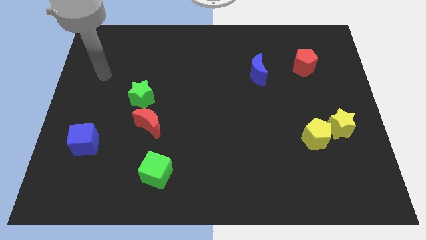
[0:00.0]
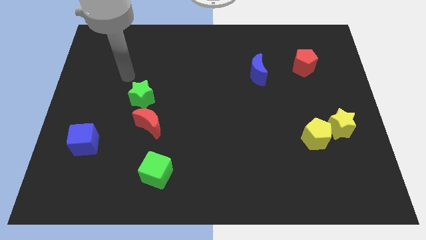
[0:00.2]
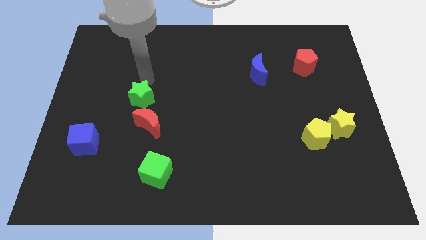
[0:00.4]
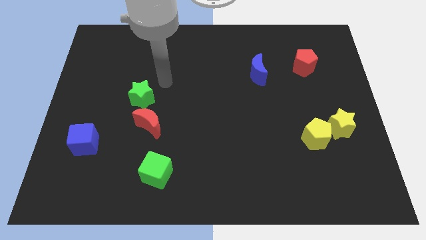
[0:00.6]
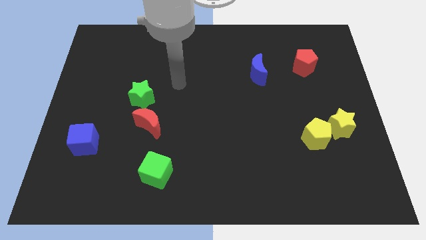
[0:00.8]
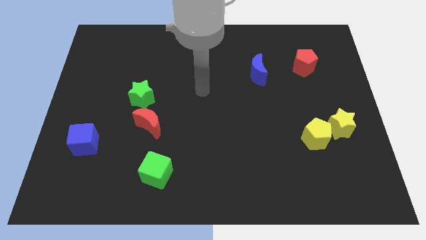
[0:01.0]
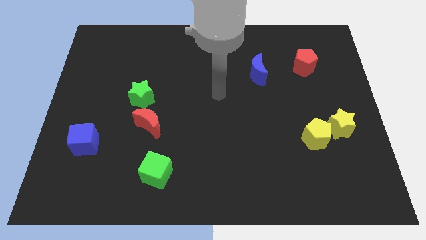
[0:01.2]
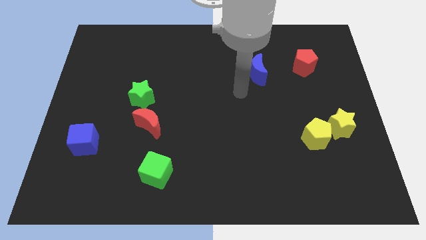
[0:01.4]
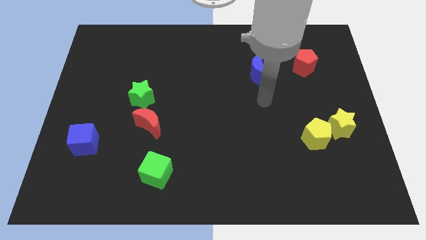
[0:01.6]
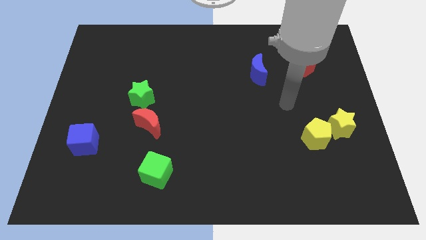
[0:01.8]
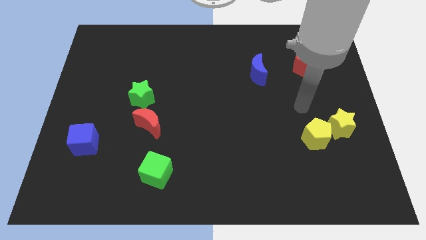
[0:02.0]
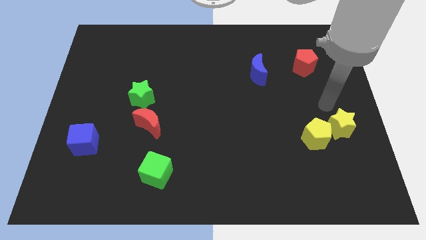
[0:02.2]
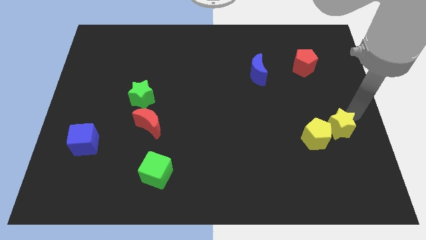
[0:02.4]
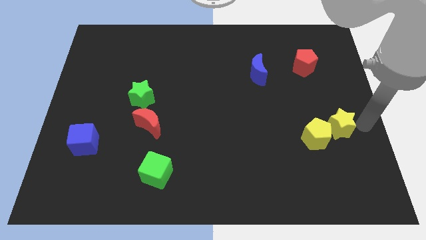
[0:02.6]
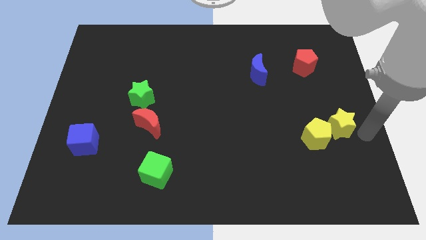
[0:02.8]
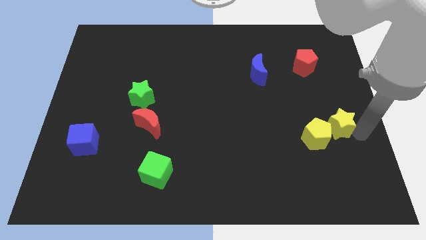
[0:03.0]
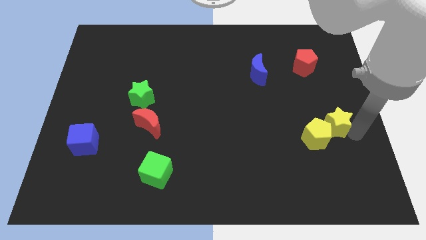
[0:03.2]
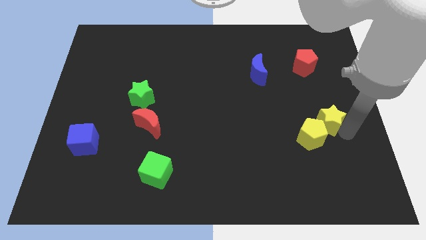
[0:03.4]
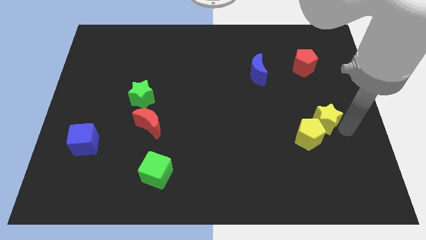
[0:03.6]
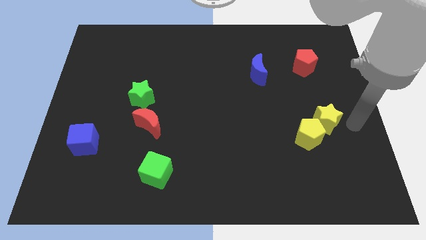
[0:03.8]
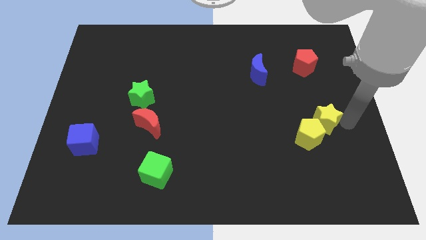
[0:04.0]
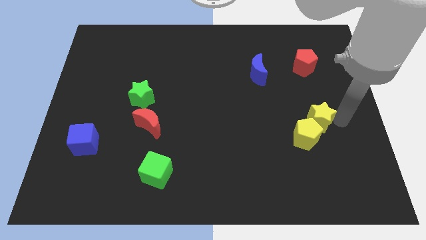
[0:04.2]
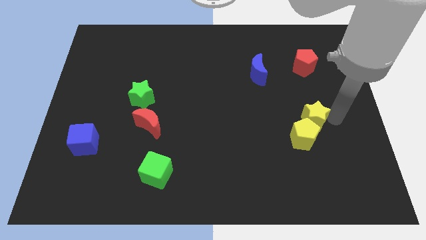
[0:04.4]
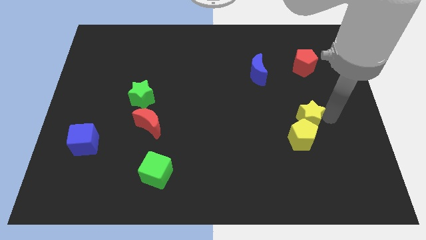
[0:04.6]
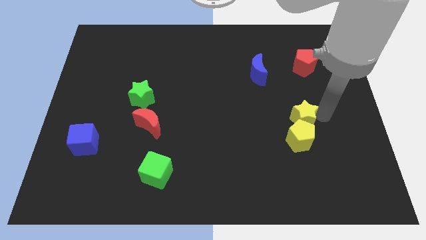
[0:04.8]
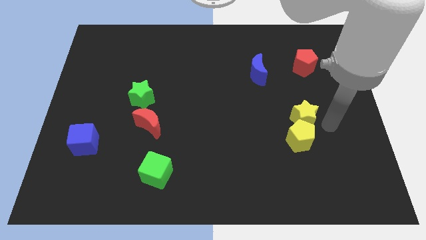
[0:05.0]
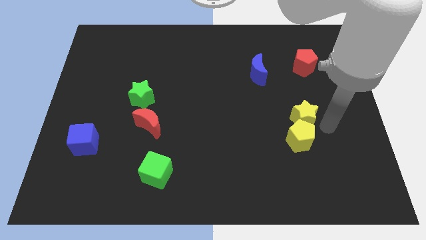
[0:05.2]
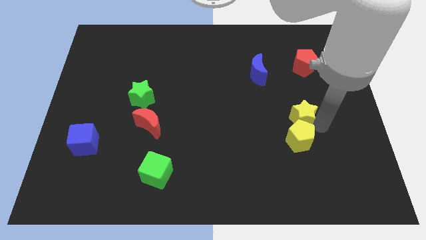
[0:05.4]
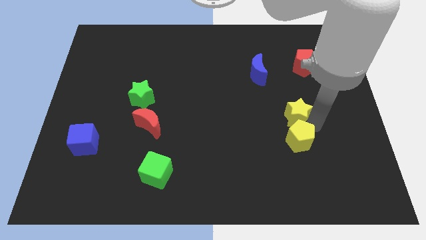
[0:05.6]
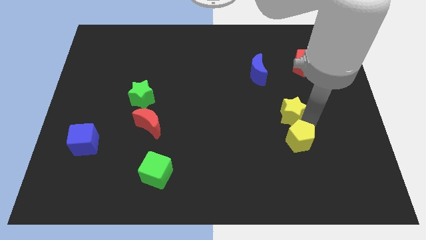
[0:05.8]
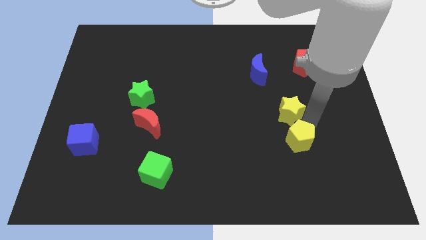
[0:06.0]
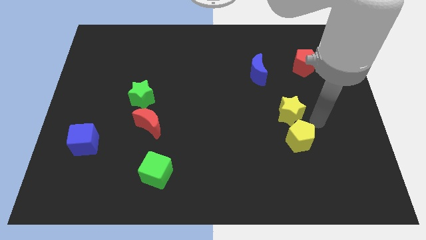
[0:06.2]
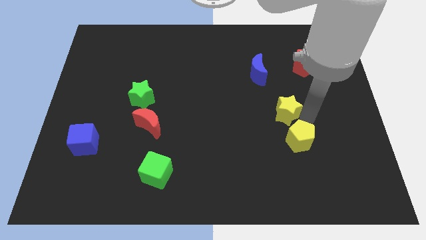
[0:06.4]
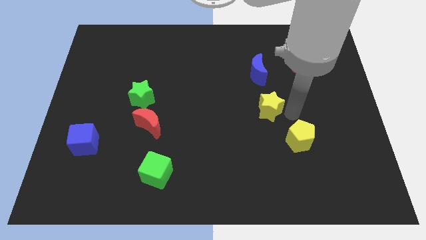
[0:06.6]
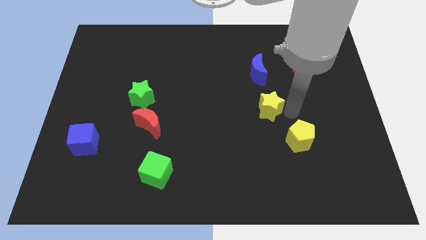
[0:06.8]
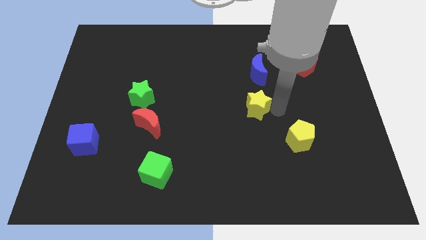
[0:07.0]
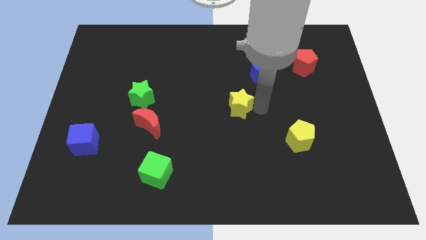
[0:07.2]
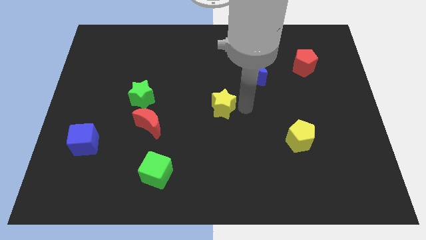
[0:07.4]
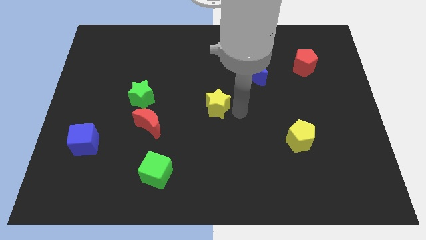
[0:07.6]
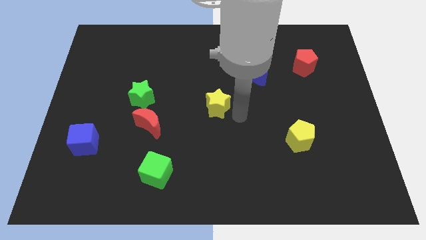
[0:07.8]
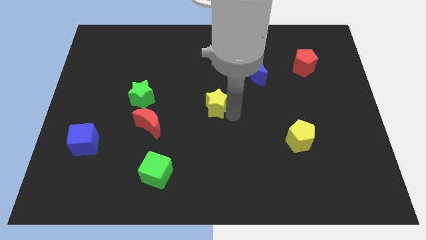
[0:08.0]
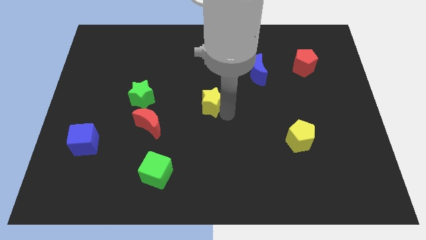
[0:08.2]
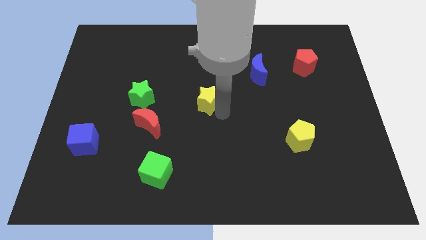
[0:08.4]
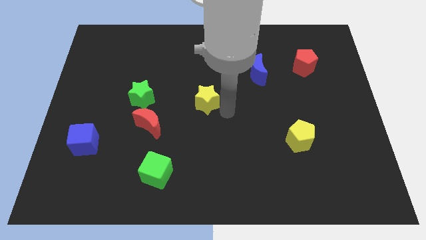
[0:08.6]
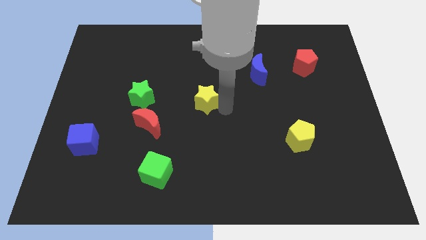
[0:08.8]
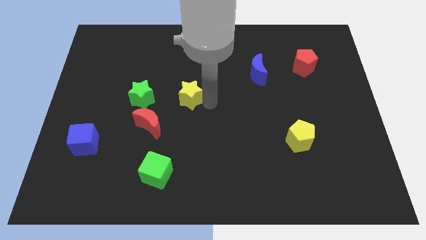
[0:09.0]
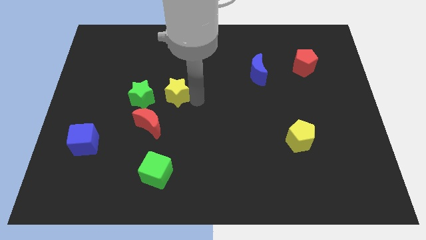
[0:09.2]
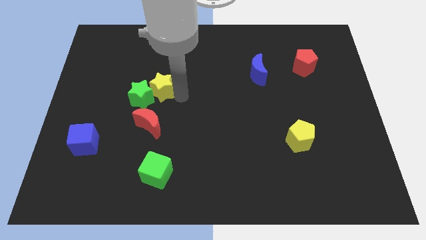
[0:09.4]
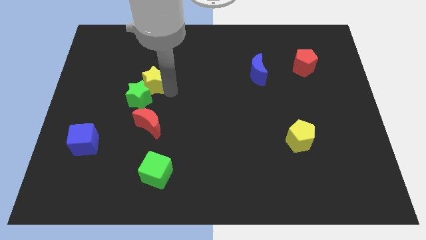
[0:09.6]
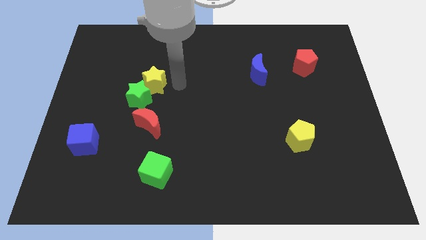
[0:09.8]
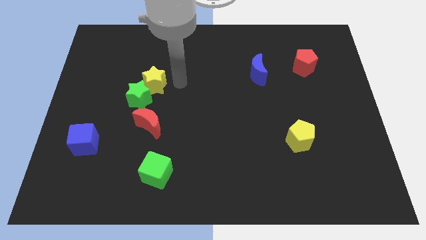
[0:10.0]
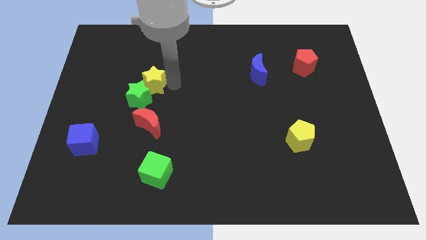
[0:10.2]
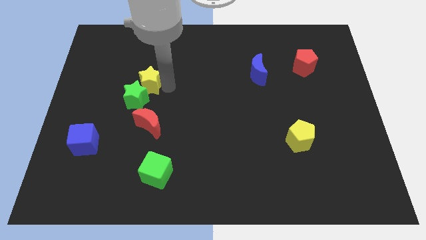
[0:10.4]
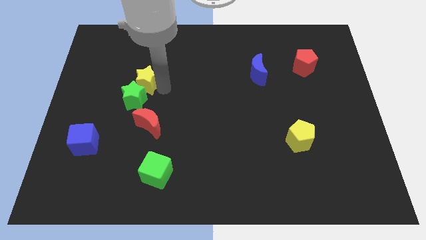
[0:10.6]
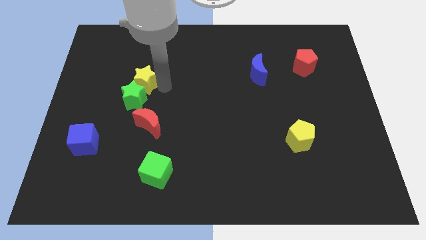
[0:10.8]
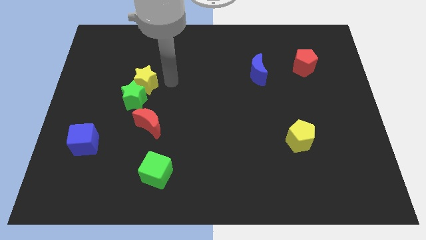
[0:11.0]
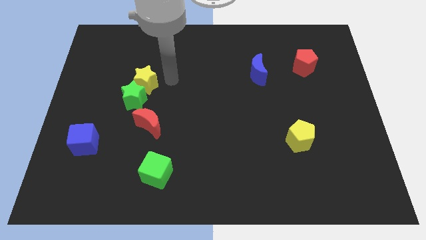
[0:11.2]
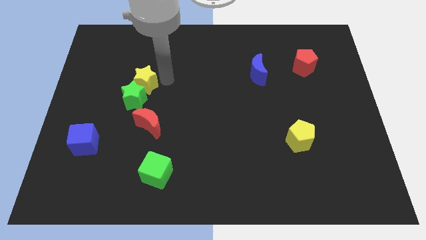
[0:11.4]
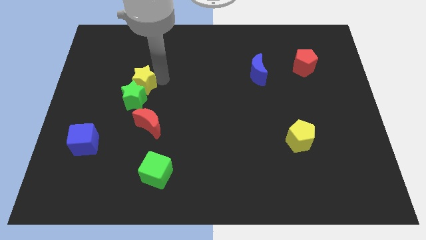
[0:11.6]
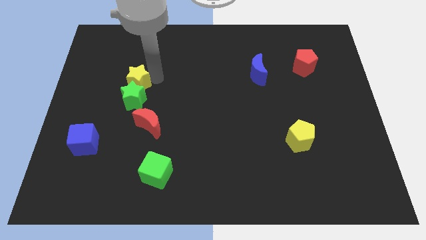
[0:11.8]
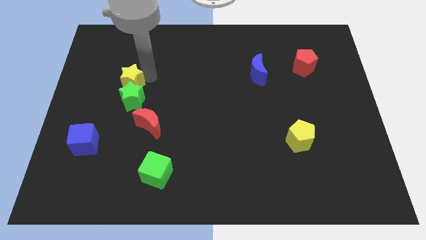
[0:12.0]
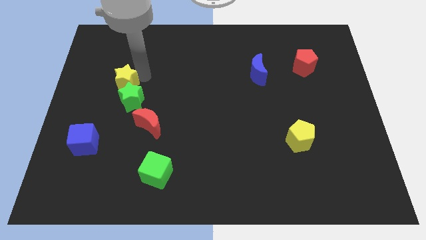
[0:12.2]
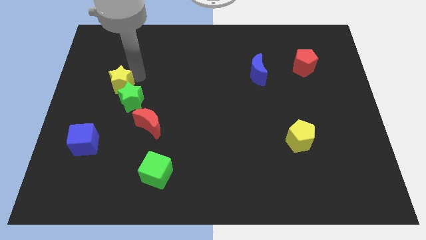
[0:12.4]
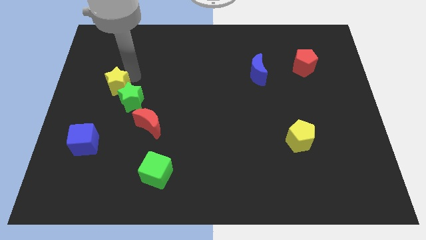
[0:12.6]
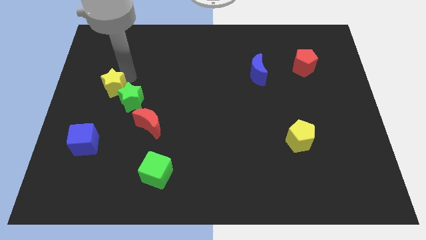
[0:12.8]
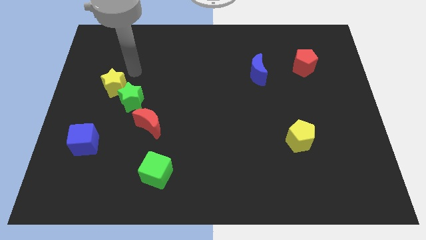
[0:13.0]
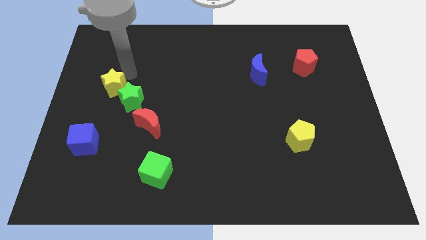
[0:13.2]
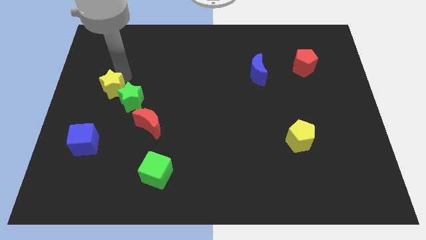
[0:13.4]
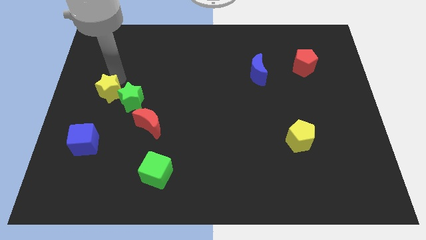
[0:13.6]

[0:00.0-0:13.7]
slide the yellow star to the top of the blue cube

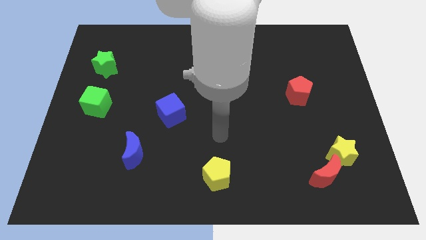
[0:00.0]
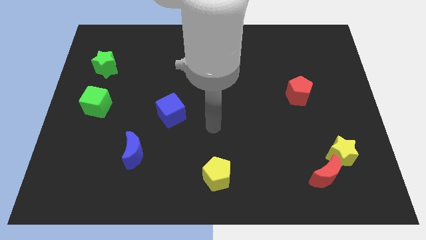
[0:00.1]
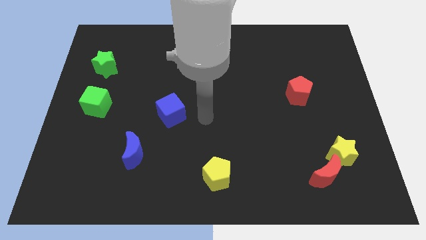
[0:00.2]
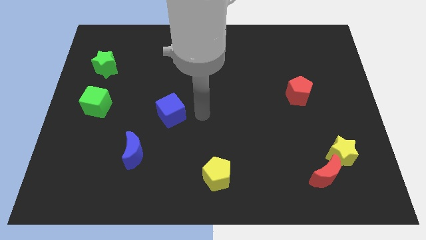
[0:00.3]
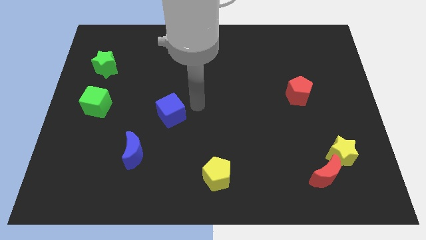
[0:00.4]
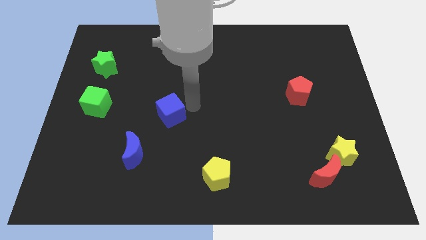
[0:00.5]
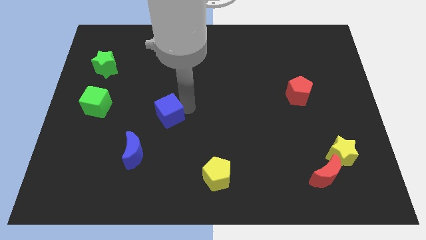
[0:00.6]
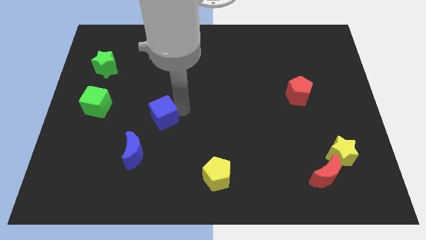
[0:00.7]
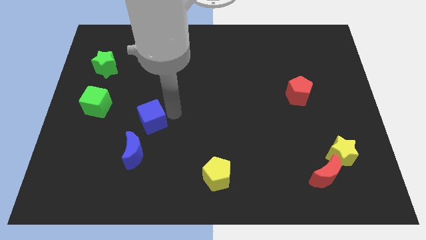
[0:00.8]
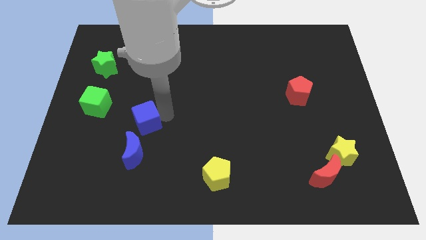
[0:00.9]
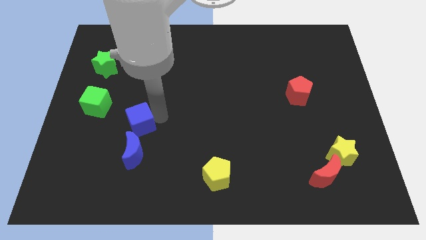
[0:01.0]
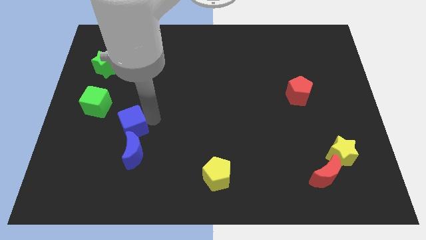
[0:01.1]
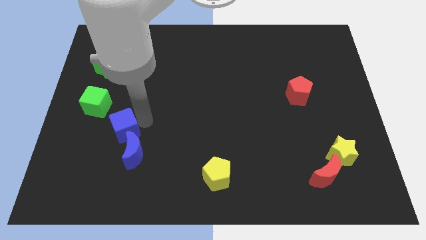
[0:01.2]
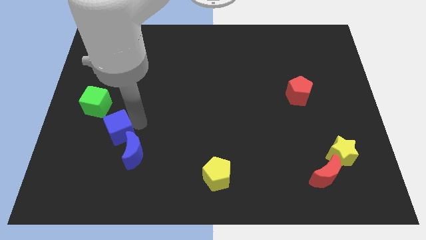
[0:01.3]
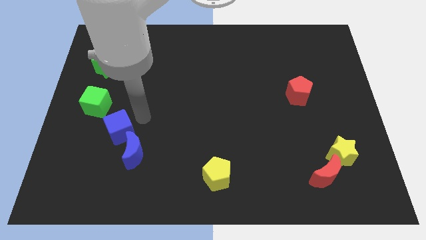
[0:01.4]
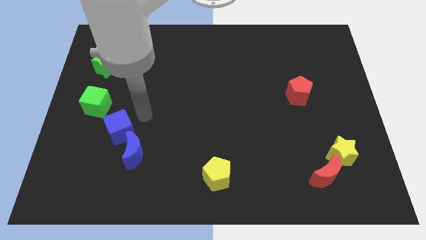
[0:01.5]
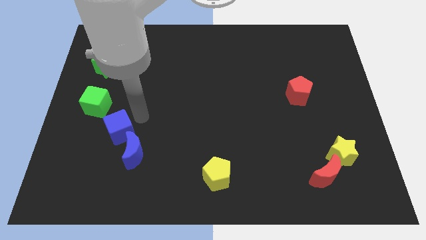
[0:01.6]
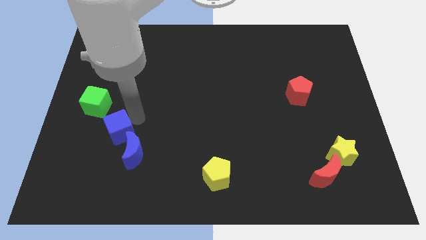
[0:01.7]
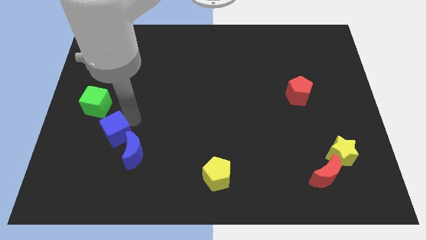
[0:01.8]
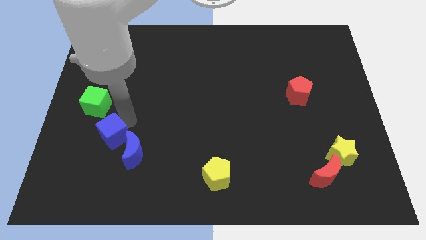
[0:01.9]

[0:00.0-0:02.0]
move the blue cube left of the blue moon
